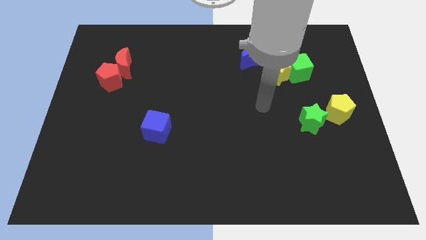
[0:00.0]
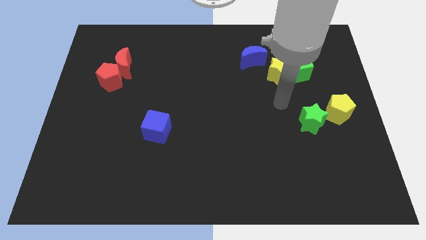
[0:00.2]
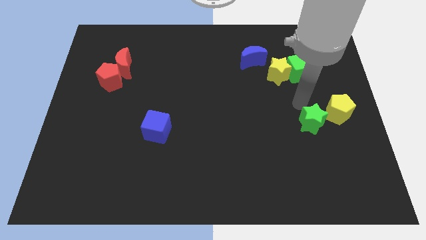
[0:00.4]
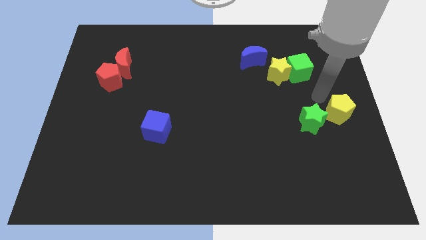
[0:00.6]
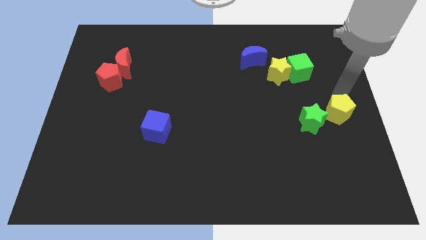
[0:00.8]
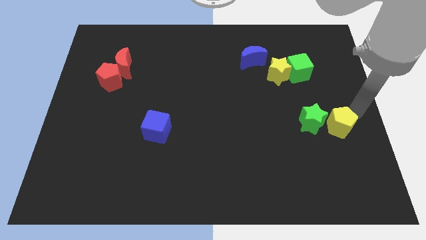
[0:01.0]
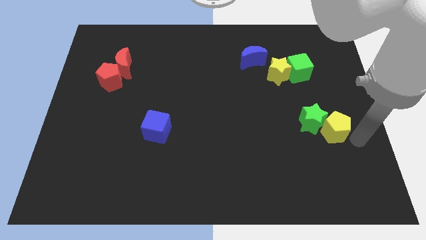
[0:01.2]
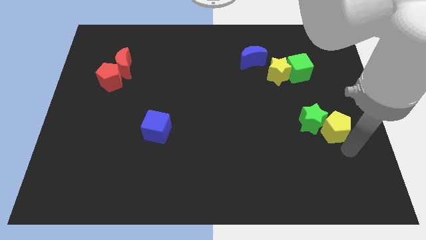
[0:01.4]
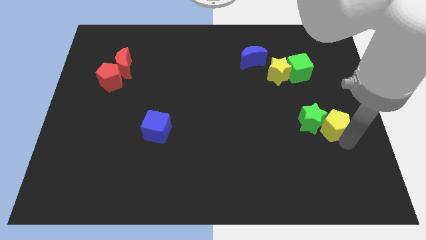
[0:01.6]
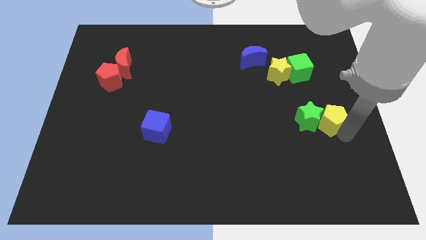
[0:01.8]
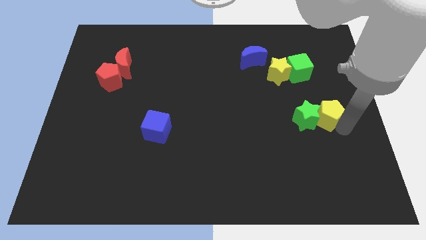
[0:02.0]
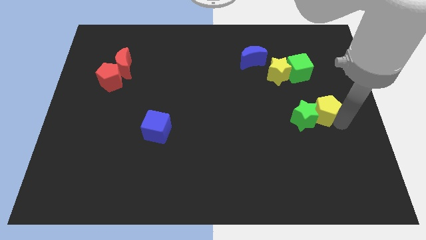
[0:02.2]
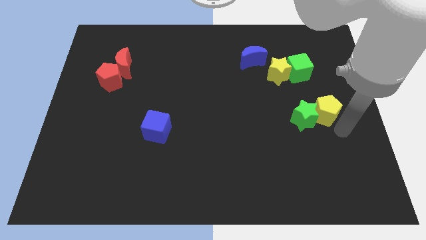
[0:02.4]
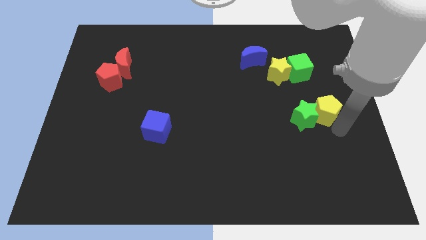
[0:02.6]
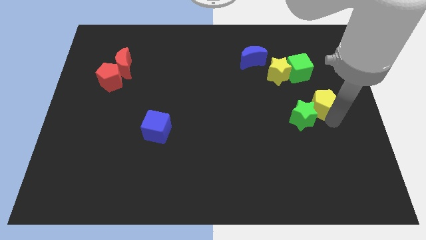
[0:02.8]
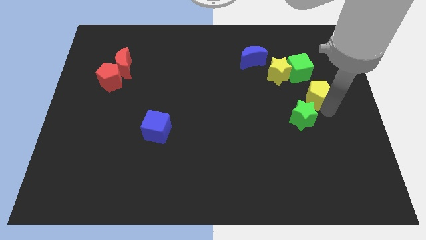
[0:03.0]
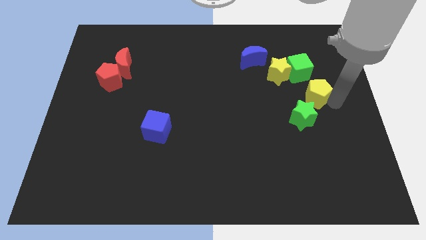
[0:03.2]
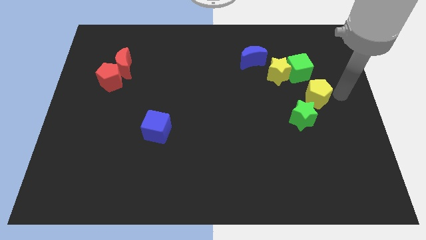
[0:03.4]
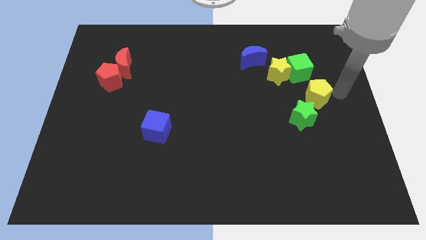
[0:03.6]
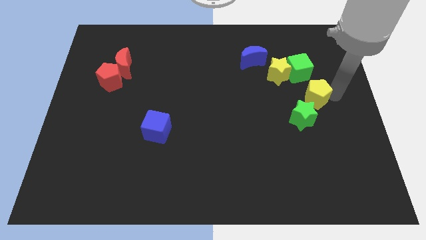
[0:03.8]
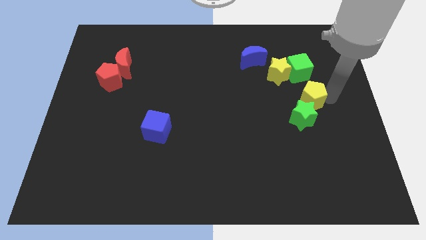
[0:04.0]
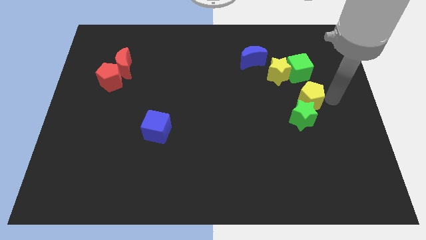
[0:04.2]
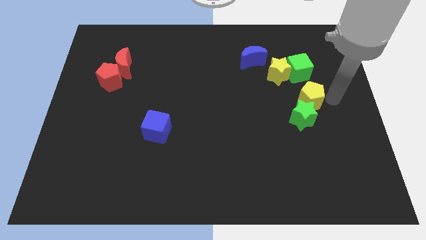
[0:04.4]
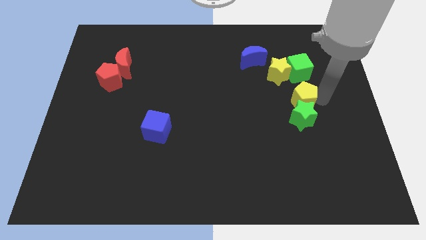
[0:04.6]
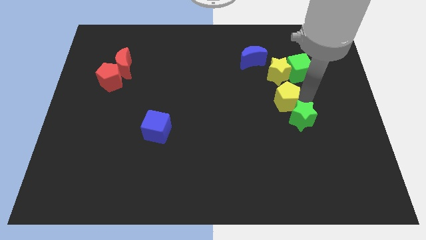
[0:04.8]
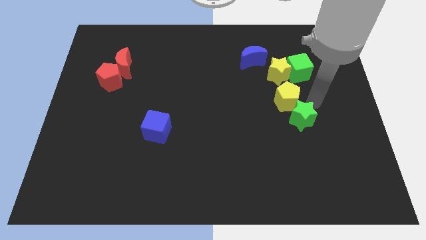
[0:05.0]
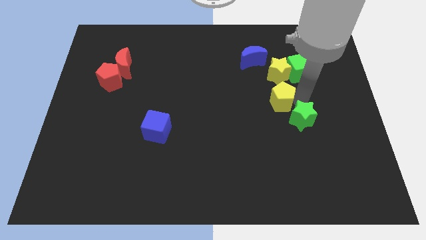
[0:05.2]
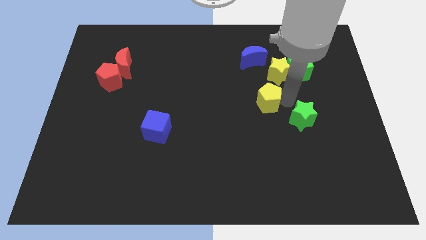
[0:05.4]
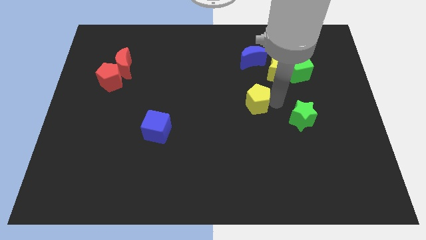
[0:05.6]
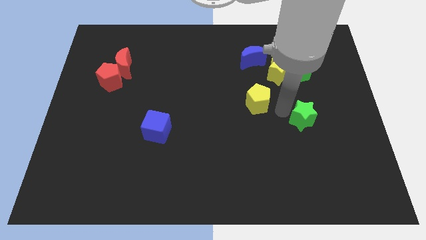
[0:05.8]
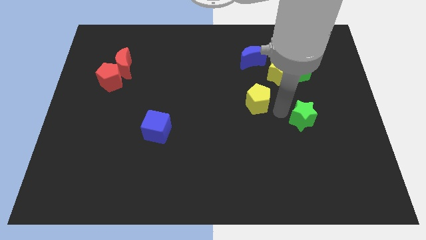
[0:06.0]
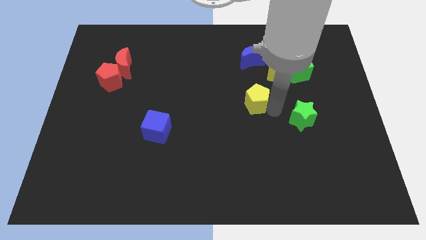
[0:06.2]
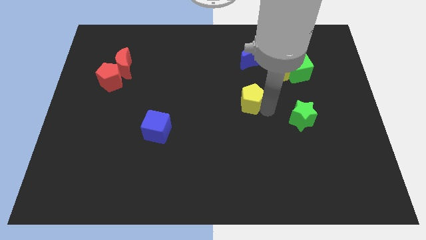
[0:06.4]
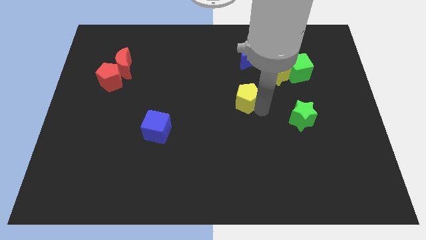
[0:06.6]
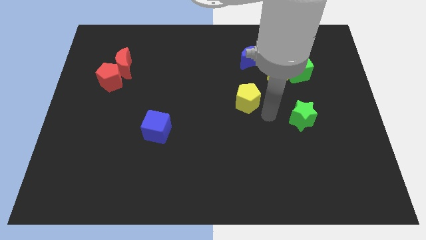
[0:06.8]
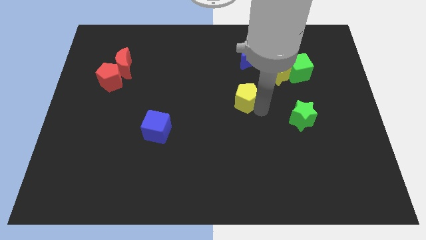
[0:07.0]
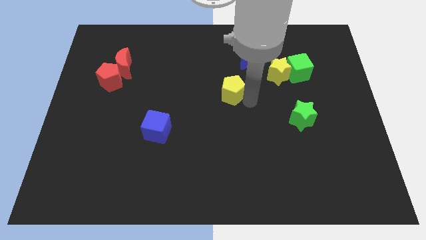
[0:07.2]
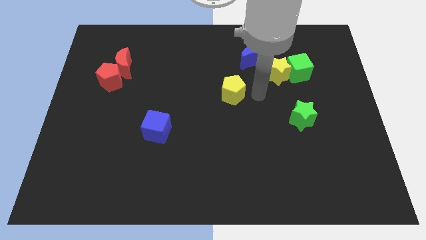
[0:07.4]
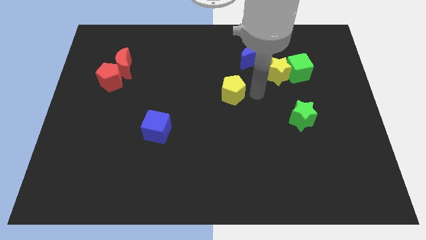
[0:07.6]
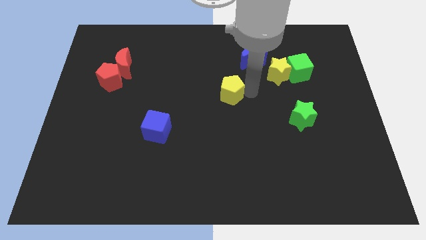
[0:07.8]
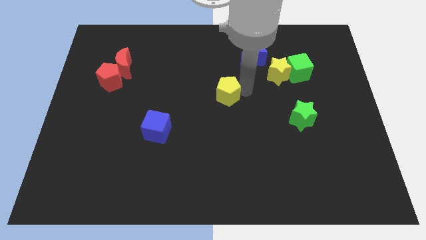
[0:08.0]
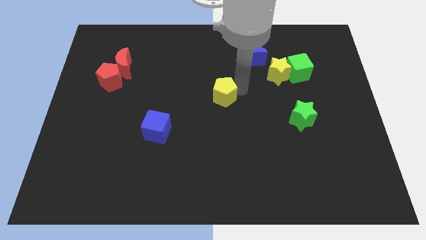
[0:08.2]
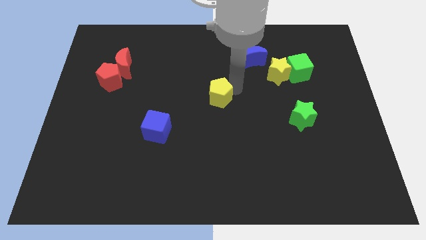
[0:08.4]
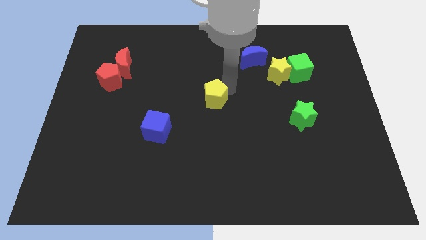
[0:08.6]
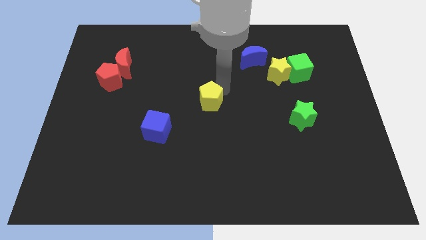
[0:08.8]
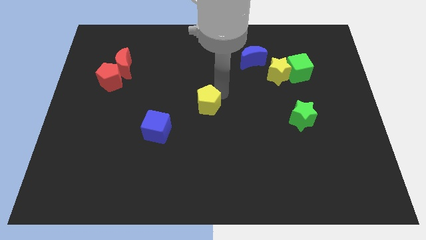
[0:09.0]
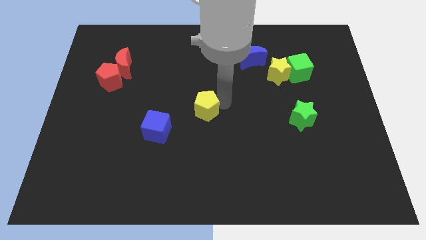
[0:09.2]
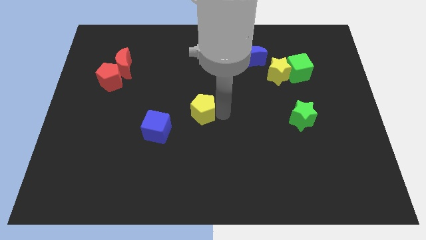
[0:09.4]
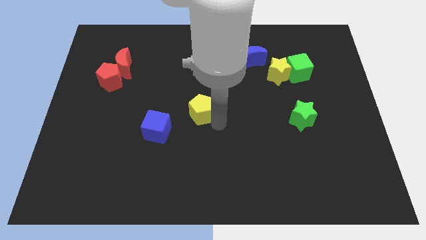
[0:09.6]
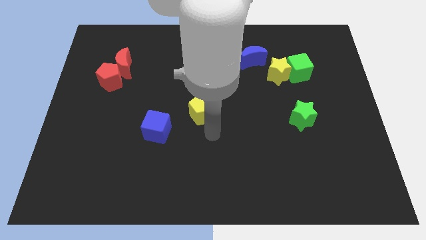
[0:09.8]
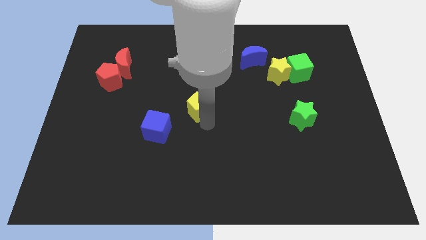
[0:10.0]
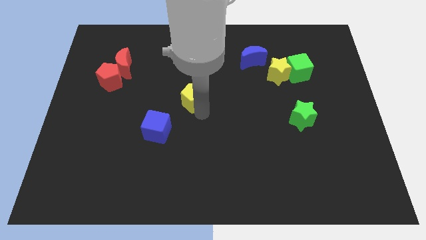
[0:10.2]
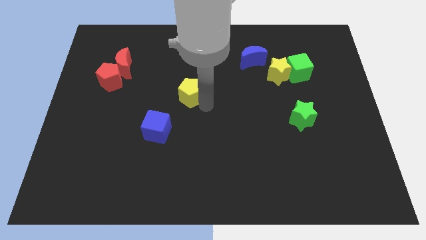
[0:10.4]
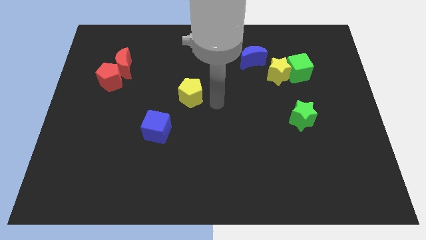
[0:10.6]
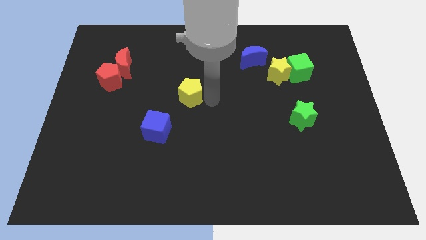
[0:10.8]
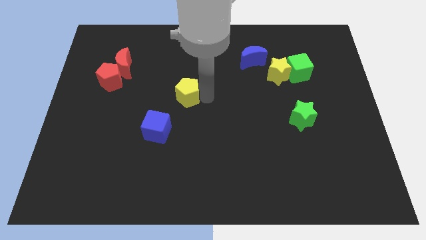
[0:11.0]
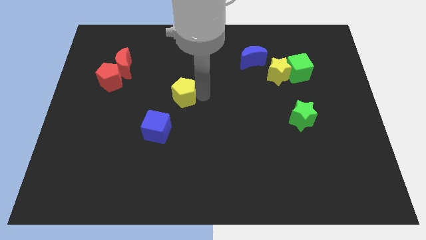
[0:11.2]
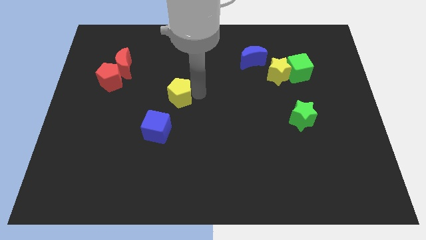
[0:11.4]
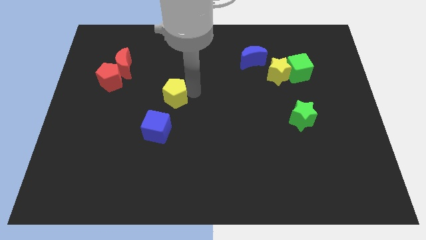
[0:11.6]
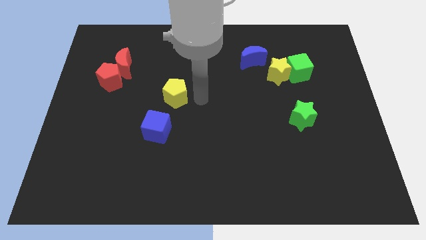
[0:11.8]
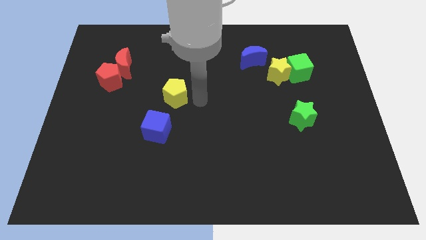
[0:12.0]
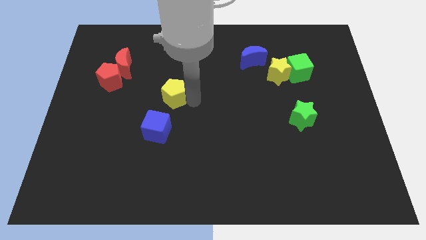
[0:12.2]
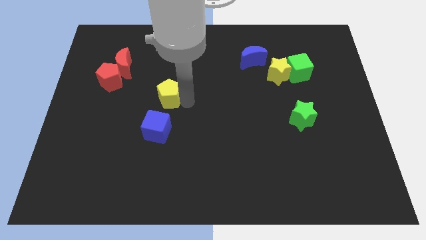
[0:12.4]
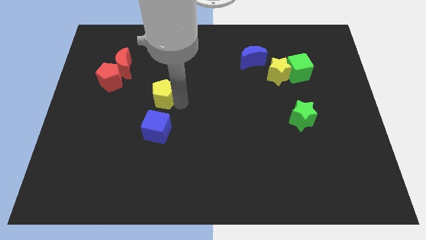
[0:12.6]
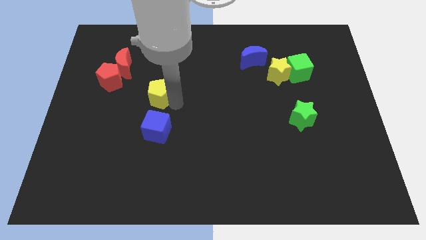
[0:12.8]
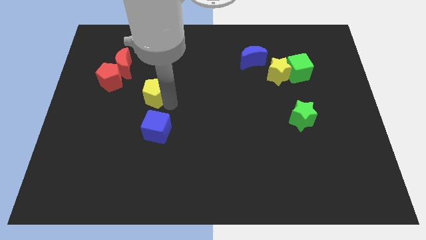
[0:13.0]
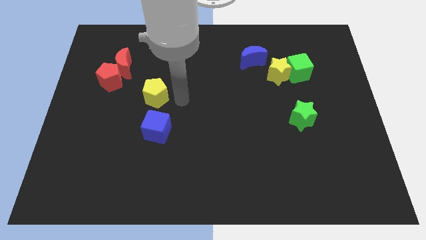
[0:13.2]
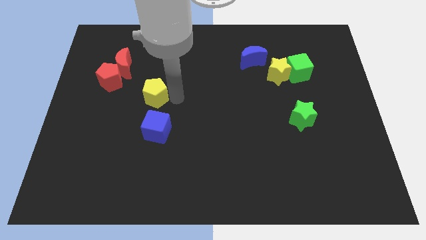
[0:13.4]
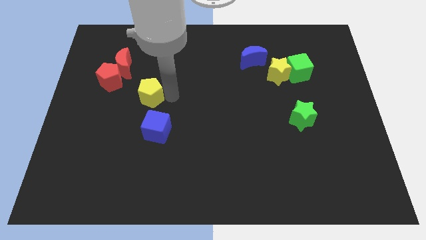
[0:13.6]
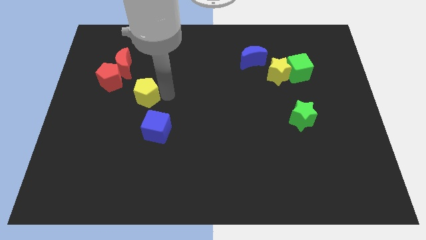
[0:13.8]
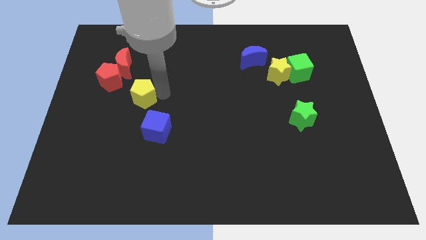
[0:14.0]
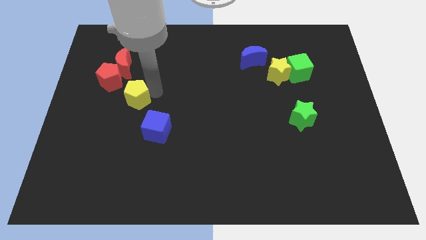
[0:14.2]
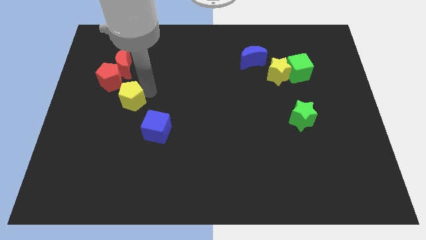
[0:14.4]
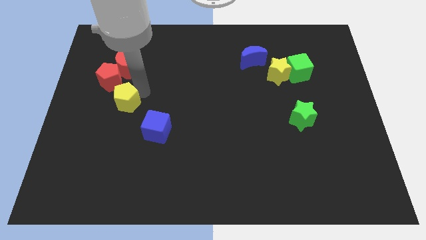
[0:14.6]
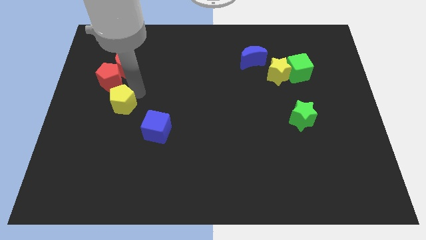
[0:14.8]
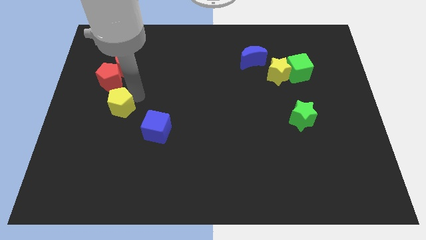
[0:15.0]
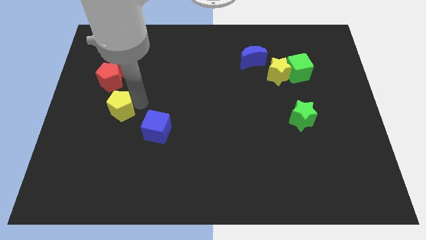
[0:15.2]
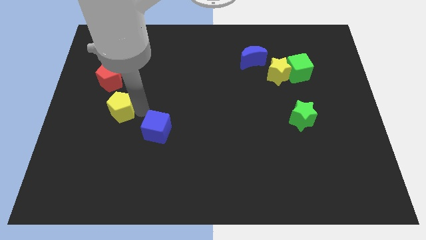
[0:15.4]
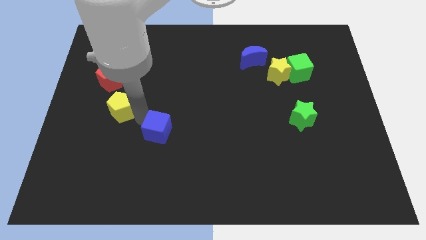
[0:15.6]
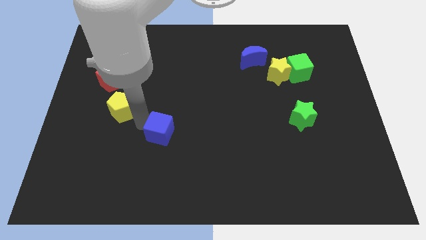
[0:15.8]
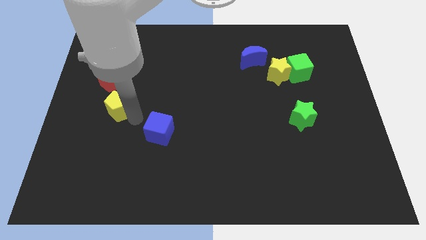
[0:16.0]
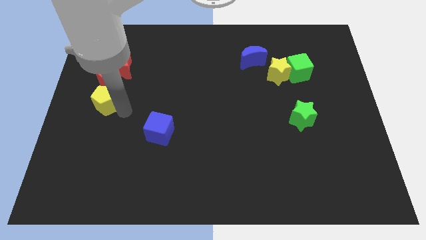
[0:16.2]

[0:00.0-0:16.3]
slide the yellow pentagon to the center left
